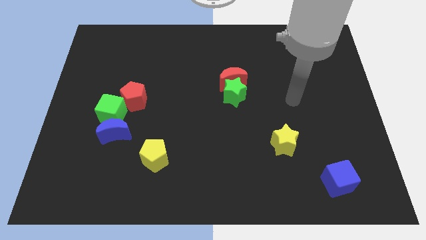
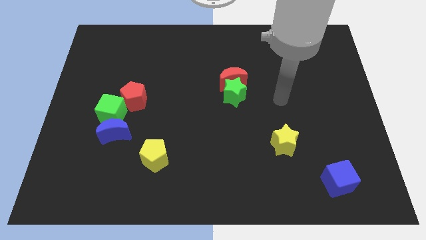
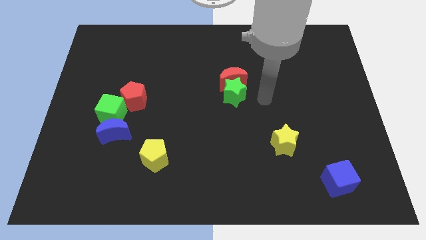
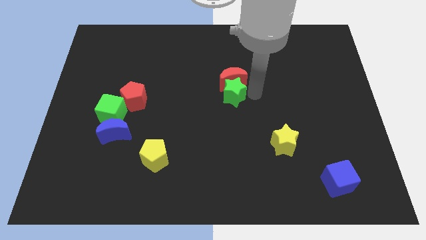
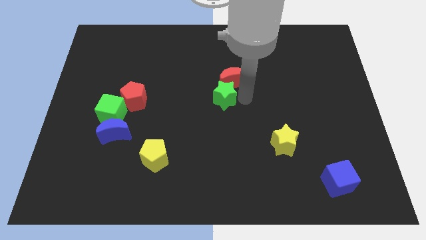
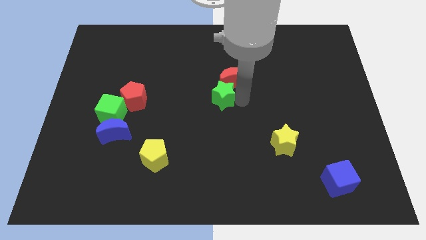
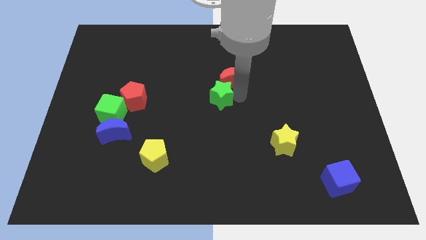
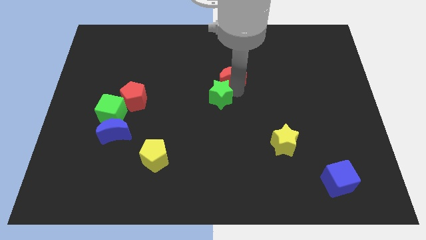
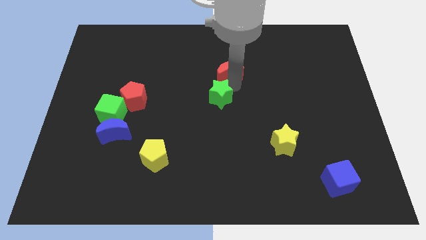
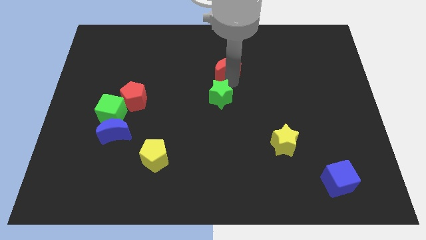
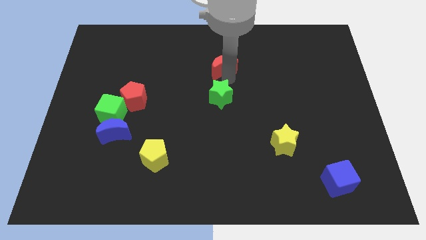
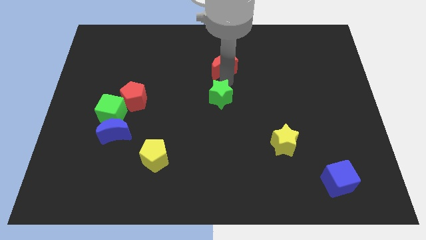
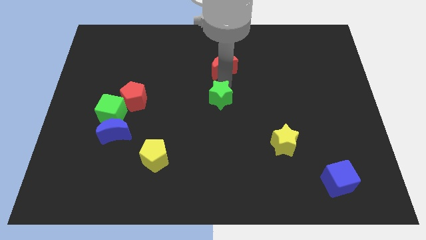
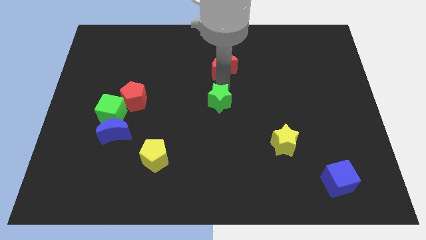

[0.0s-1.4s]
move the red moon away from the green star

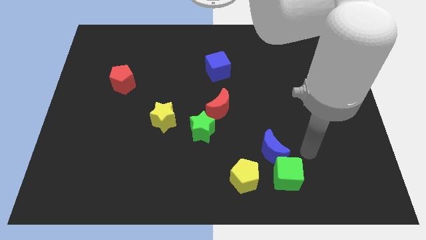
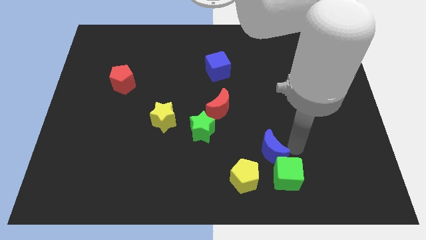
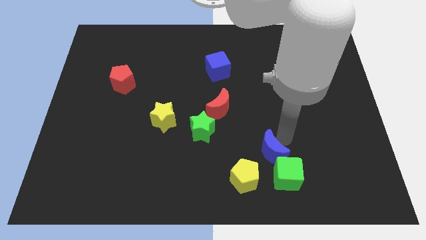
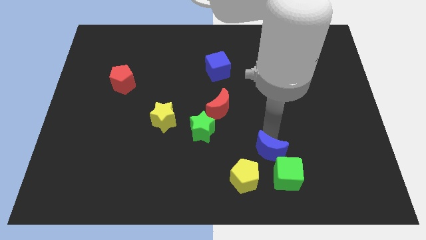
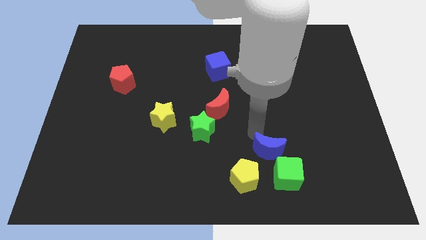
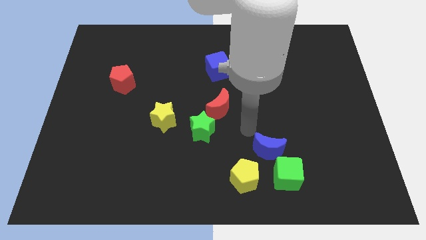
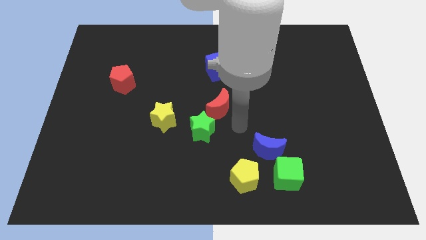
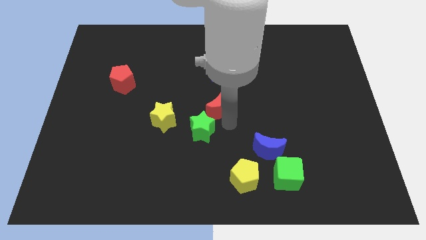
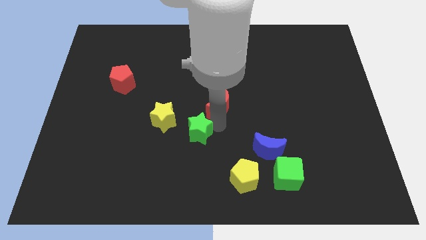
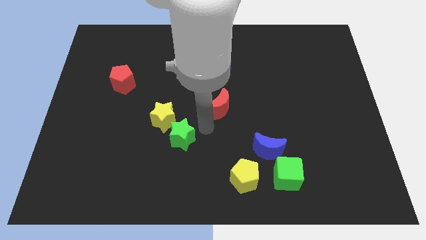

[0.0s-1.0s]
separate the red moon from the green star

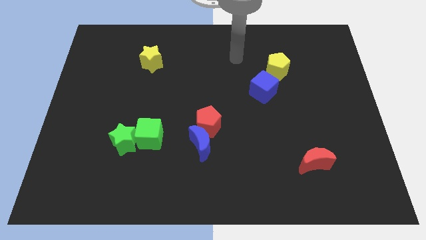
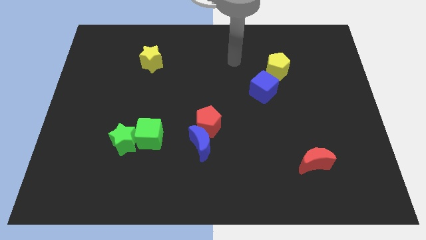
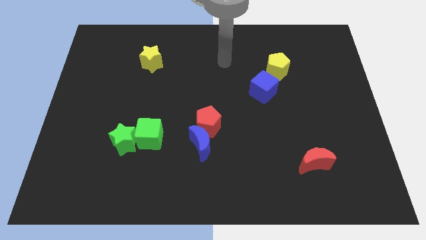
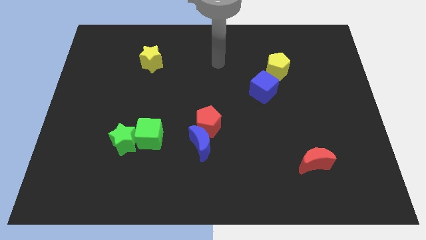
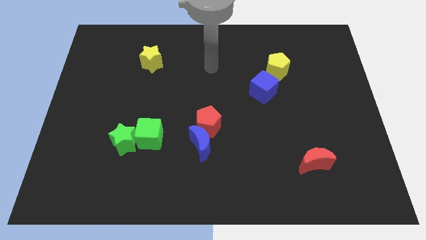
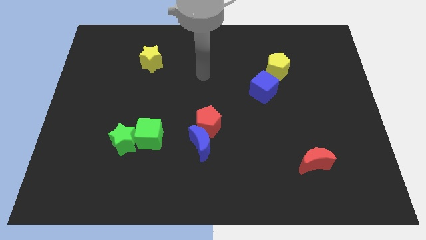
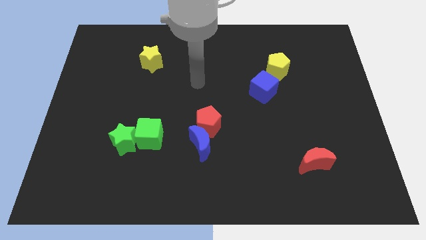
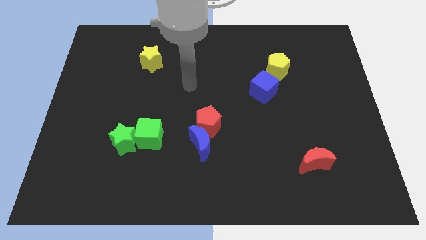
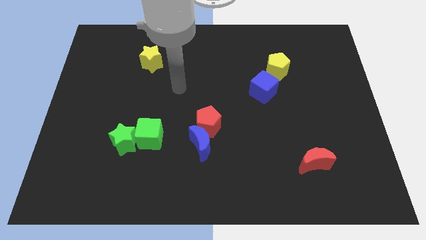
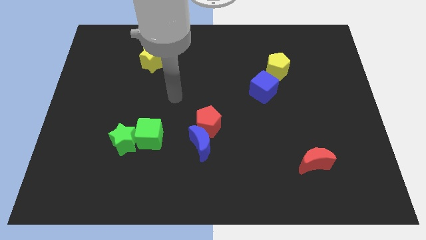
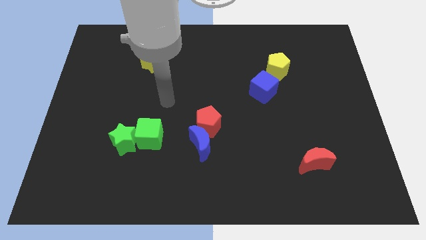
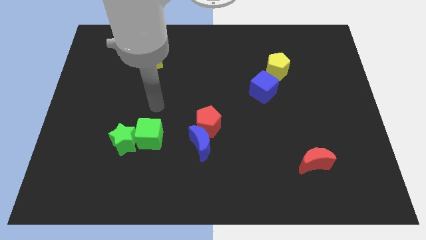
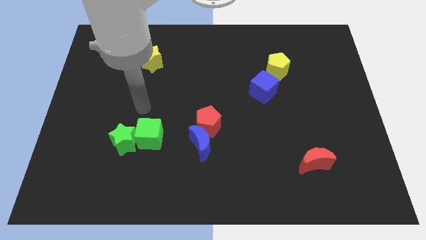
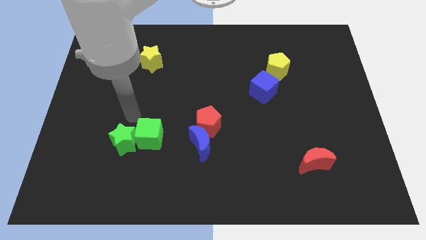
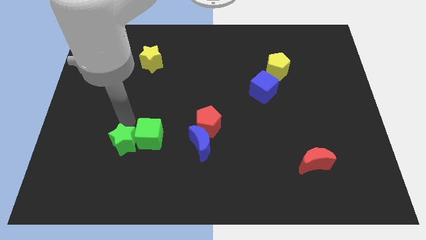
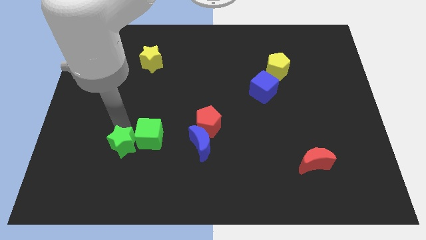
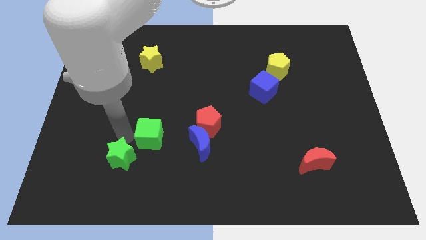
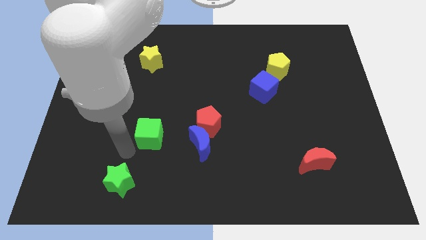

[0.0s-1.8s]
pull the green cube apart from the green star

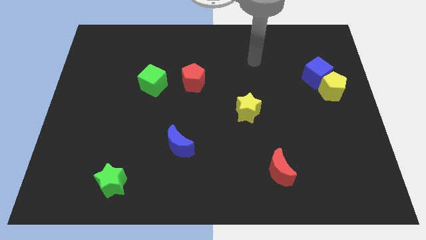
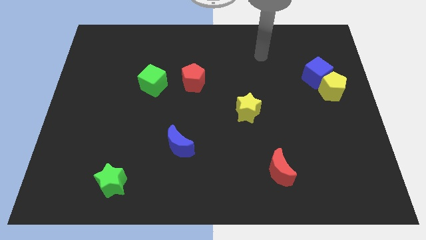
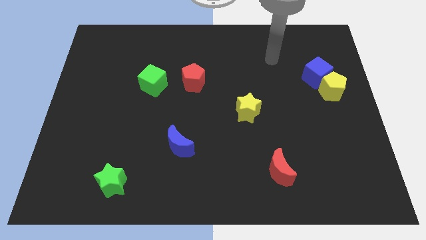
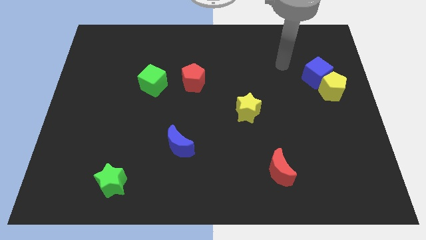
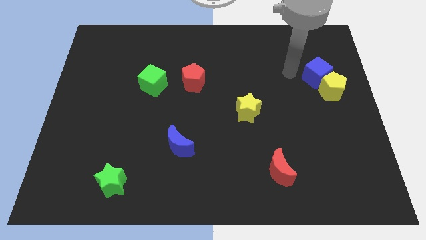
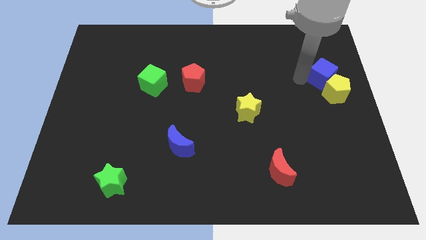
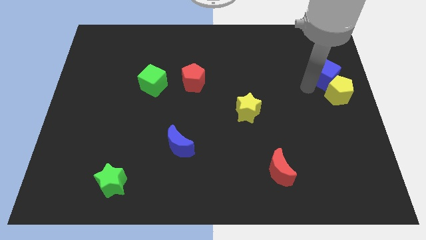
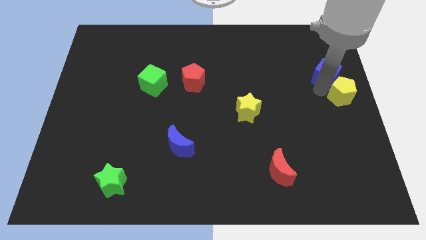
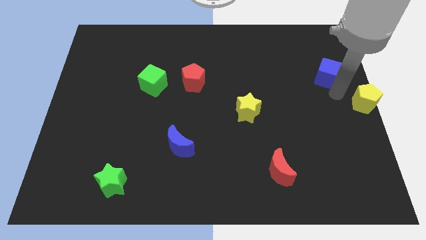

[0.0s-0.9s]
separate the blue cube from the yellow pentagon

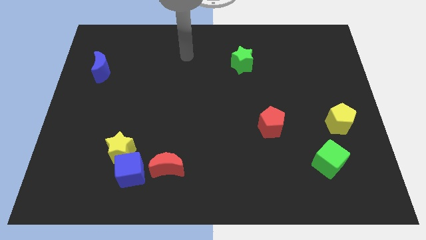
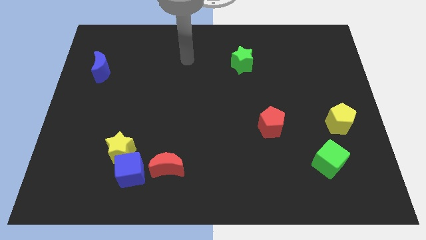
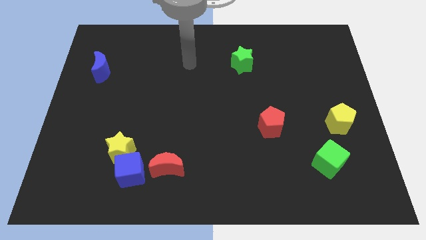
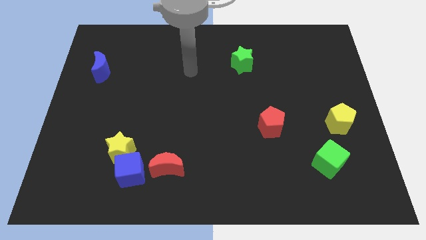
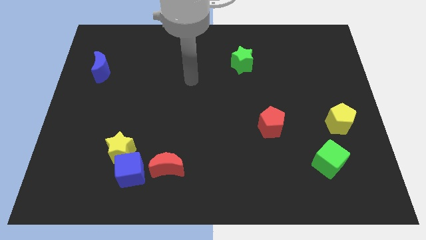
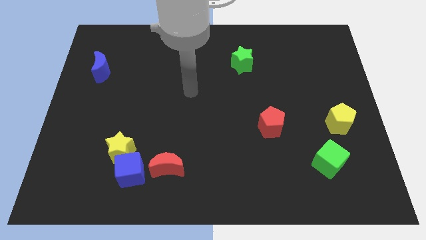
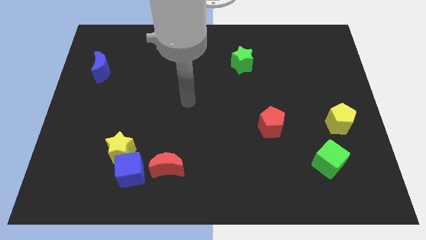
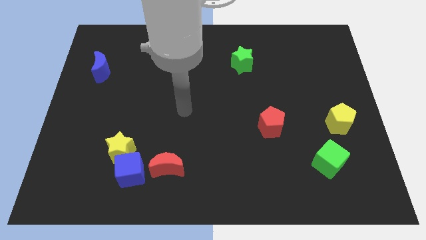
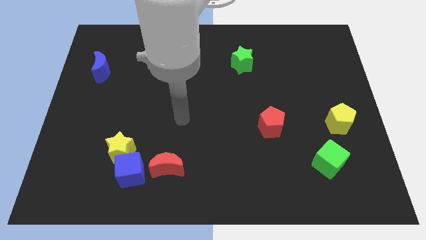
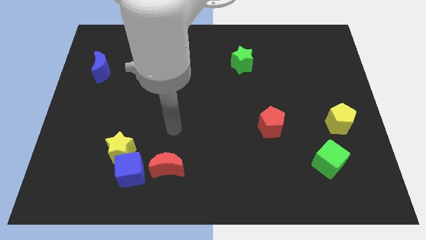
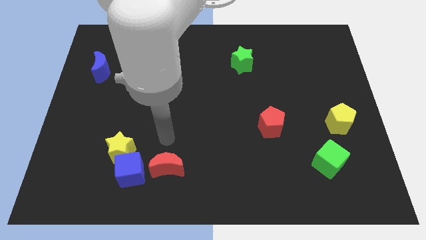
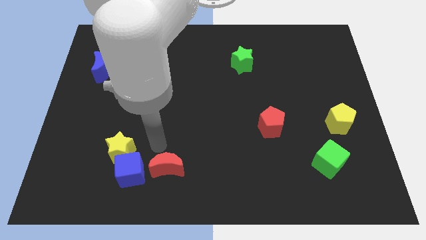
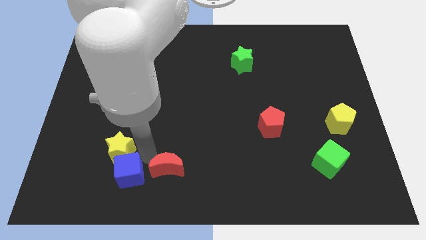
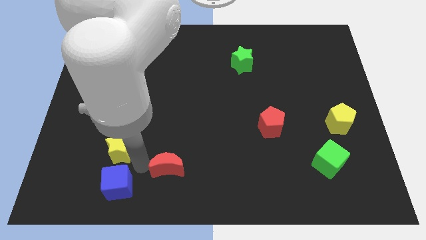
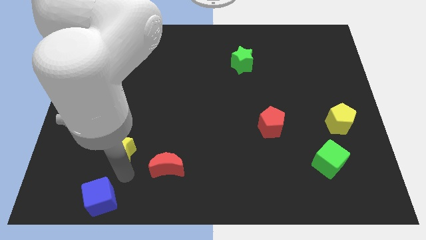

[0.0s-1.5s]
pull the yellow star apart from the blue cube

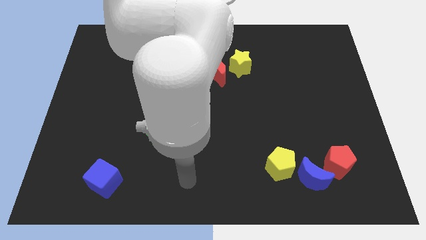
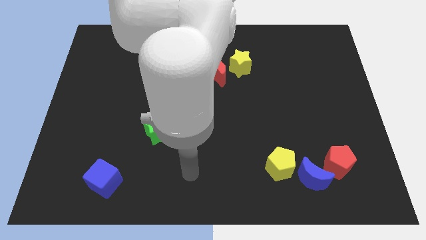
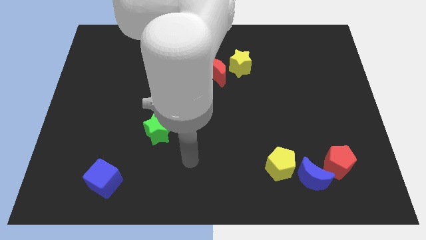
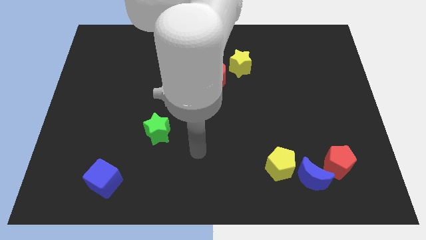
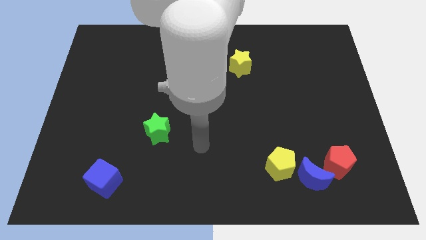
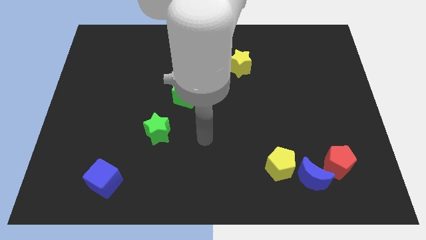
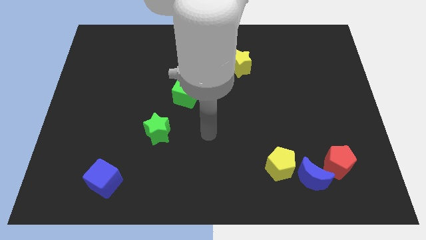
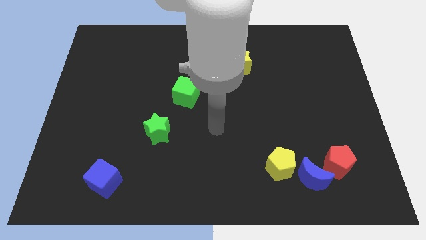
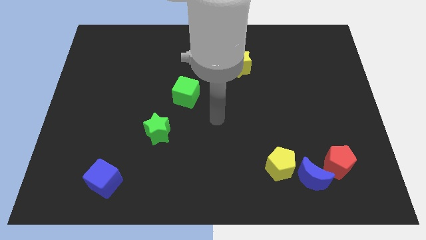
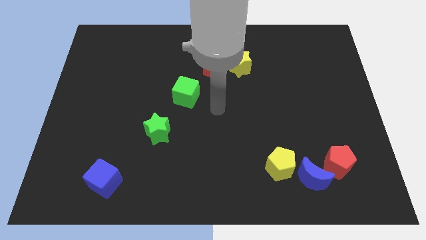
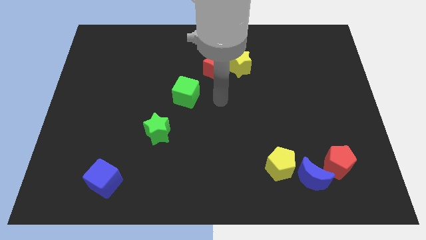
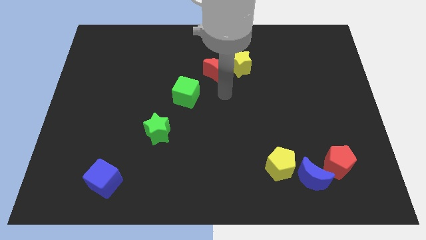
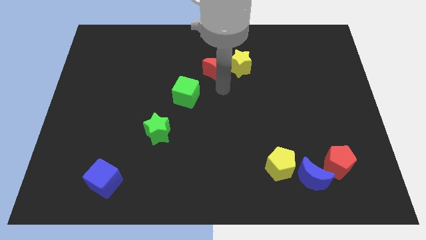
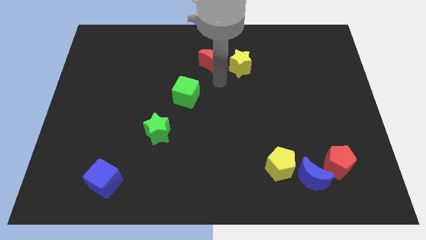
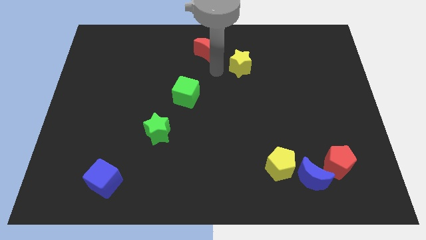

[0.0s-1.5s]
separate the yellow star from the red moon

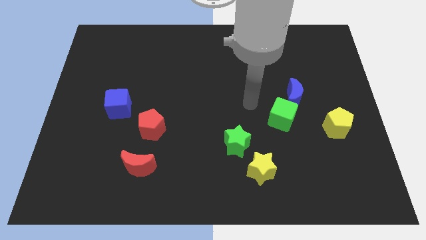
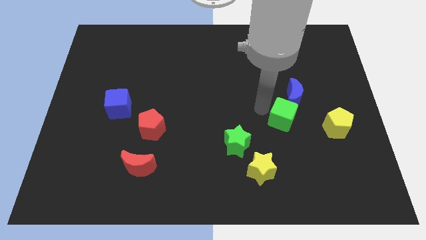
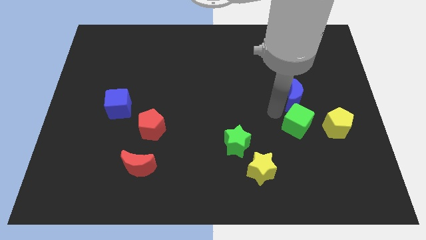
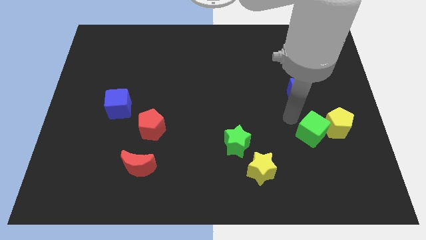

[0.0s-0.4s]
move the blue moon away from the green cube

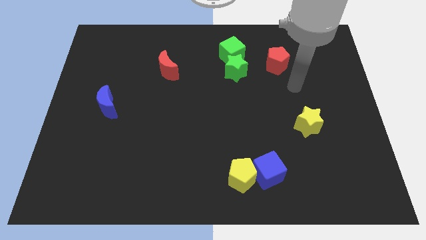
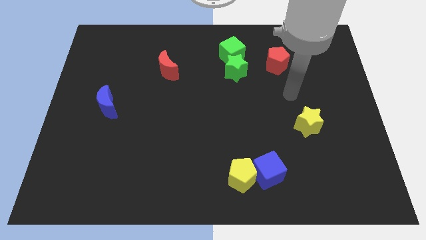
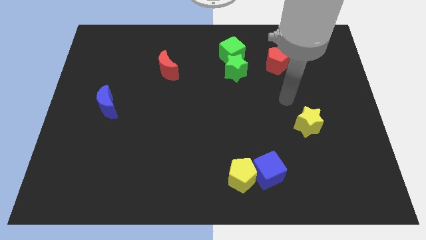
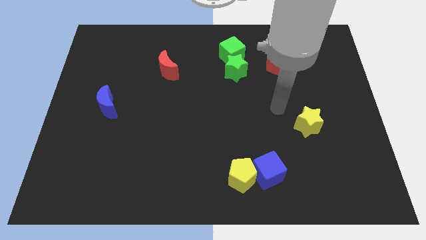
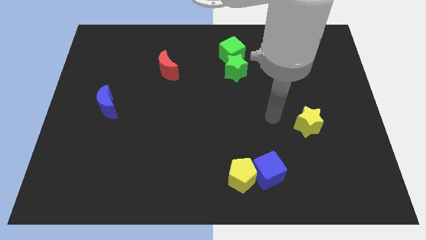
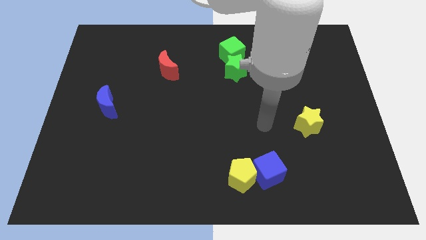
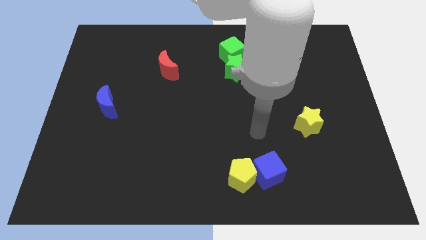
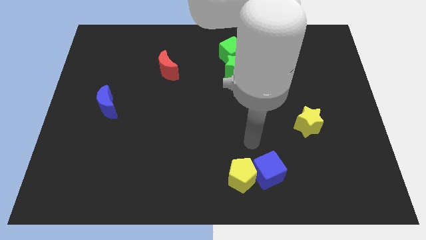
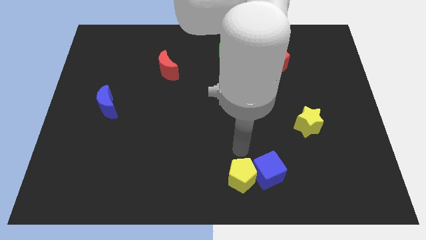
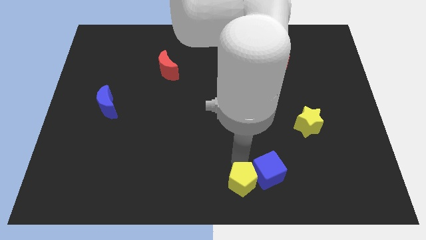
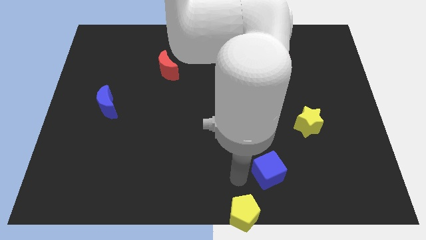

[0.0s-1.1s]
move the blue cube away from the yellow pentagon
